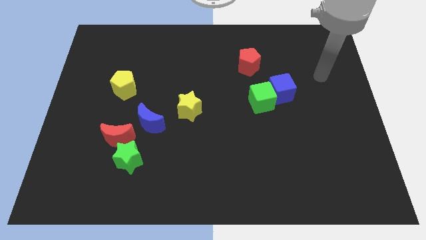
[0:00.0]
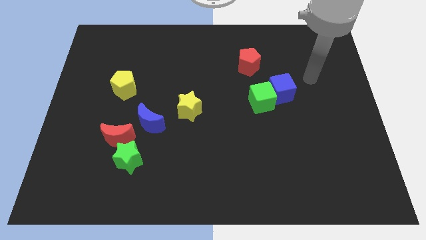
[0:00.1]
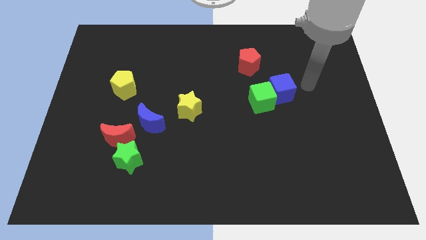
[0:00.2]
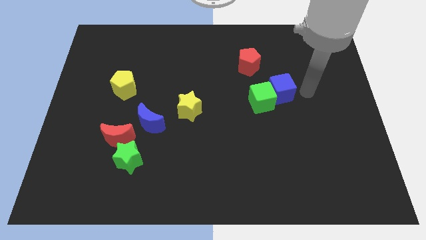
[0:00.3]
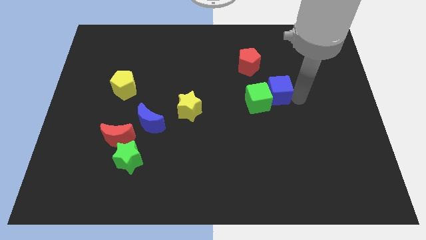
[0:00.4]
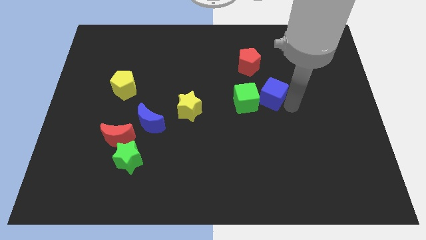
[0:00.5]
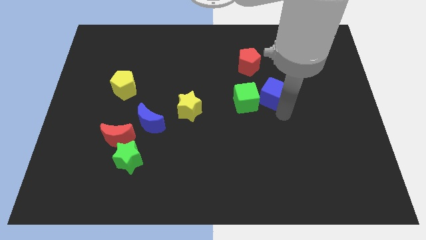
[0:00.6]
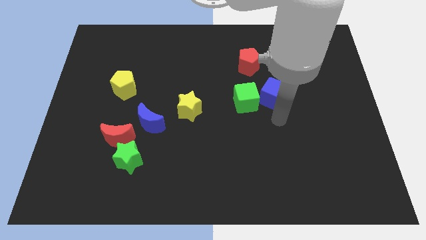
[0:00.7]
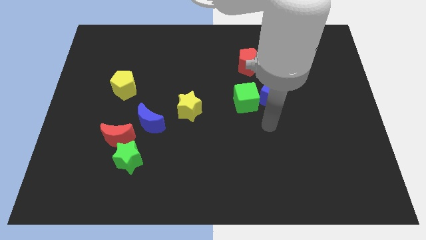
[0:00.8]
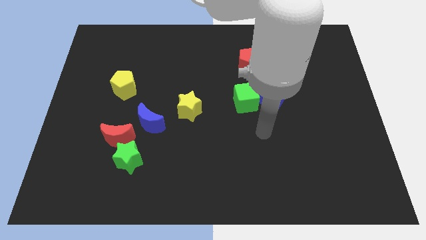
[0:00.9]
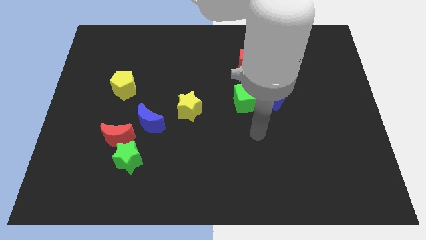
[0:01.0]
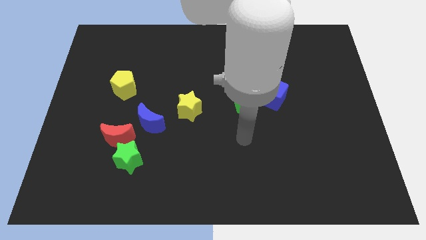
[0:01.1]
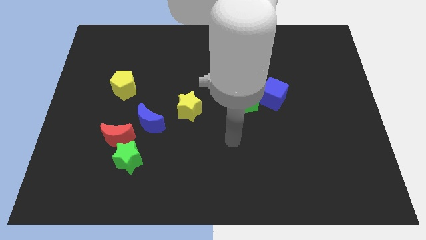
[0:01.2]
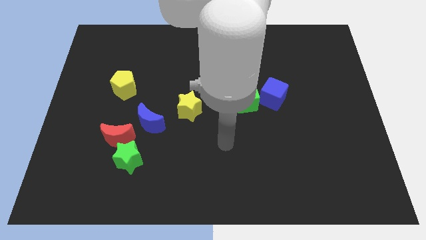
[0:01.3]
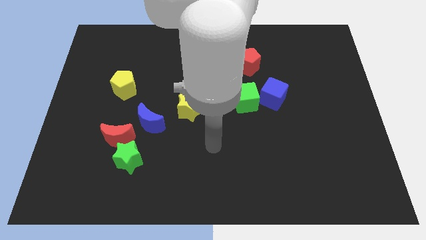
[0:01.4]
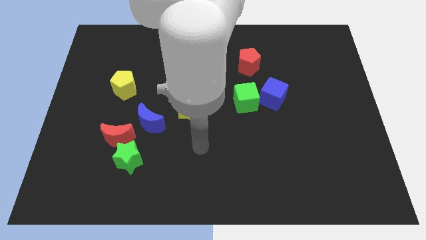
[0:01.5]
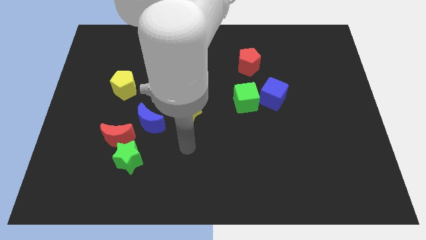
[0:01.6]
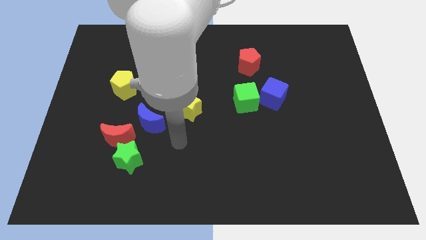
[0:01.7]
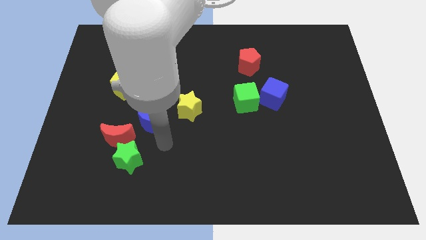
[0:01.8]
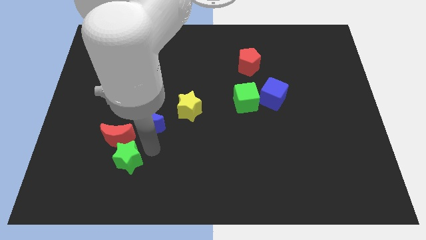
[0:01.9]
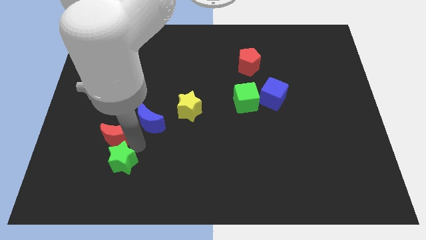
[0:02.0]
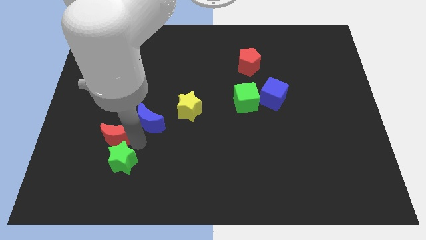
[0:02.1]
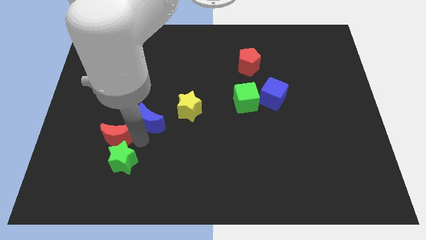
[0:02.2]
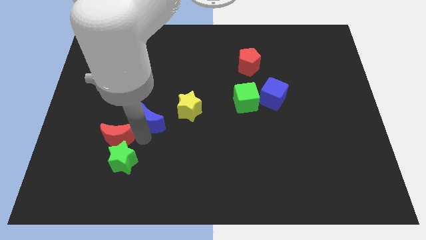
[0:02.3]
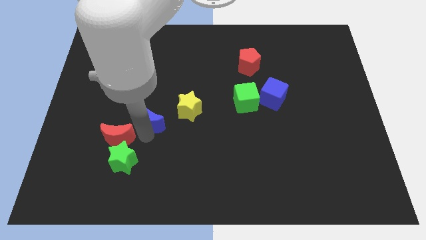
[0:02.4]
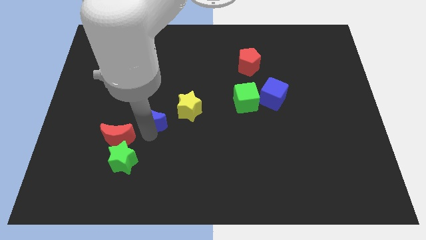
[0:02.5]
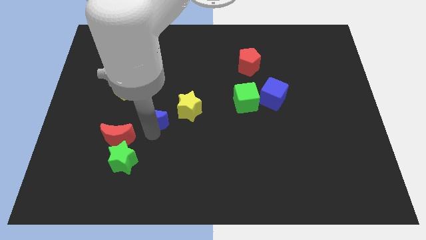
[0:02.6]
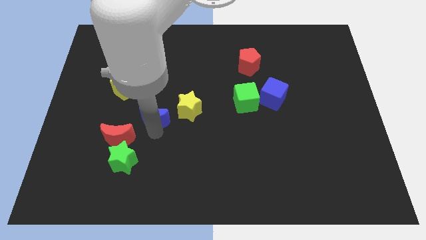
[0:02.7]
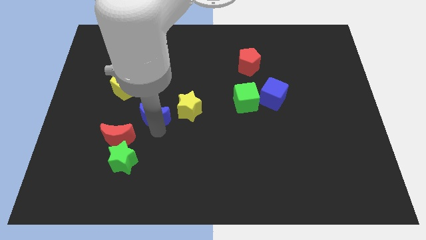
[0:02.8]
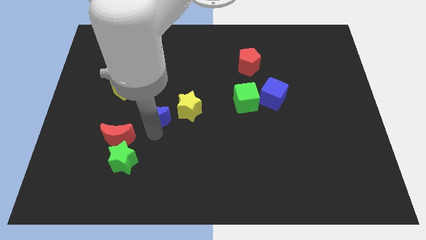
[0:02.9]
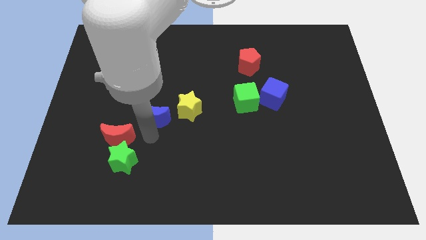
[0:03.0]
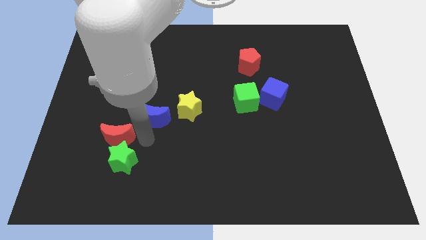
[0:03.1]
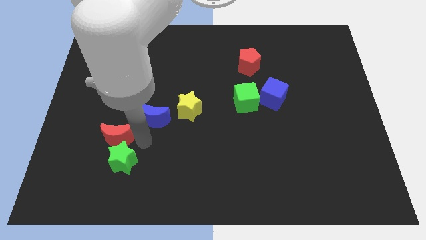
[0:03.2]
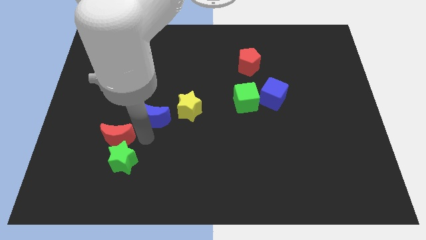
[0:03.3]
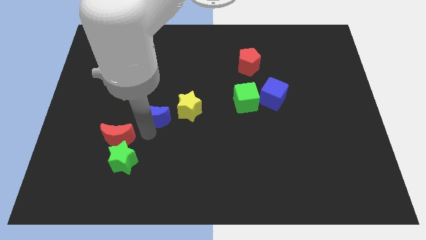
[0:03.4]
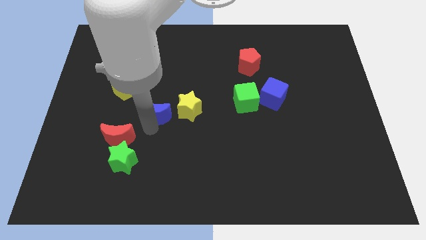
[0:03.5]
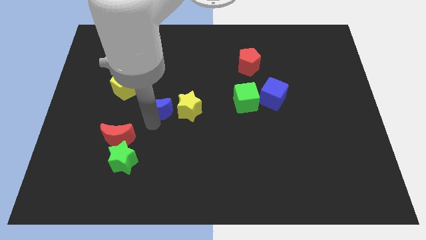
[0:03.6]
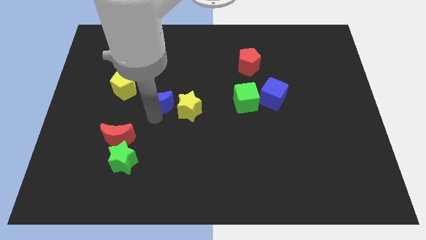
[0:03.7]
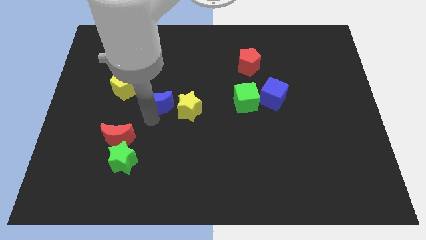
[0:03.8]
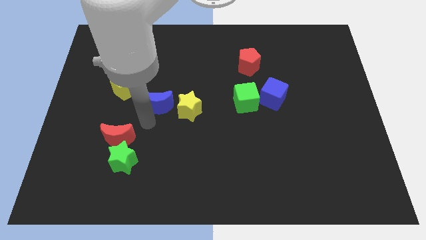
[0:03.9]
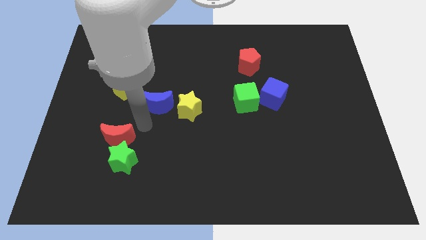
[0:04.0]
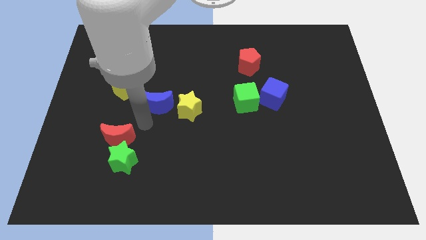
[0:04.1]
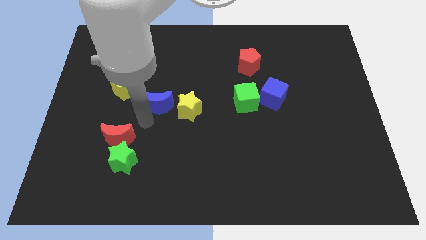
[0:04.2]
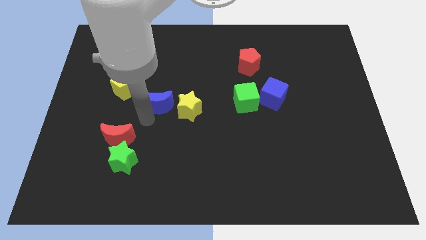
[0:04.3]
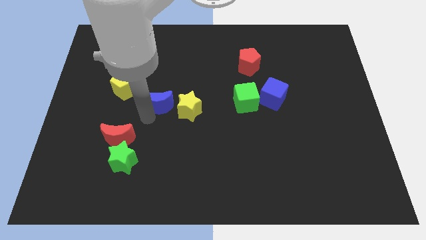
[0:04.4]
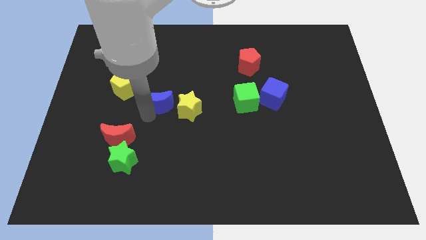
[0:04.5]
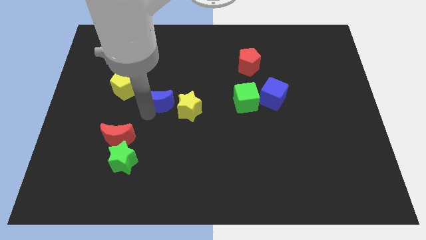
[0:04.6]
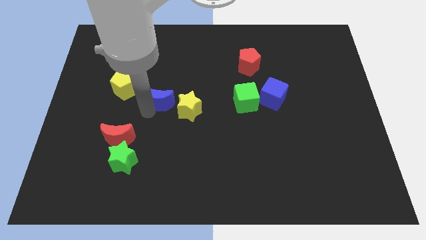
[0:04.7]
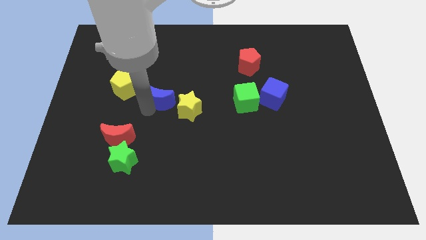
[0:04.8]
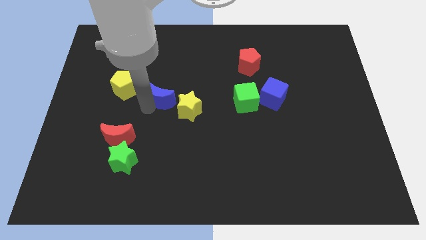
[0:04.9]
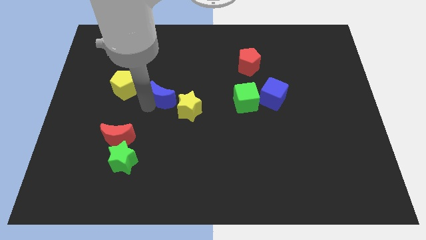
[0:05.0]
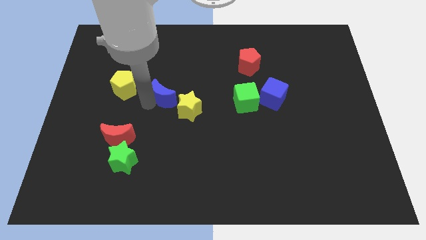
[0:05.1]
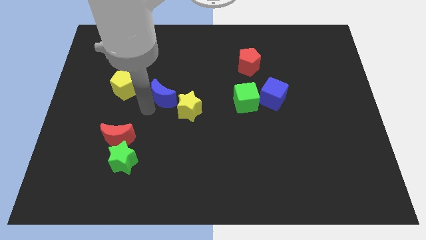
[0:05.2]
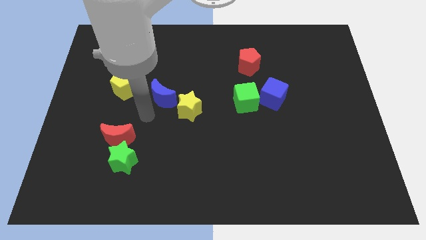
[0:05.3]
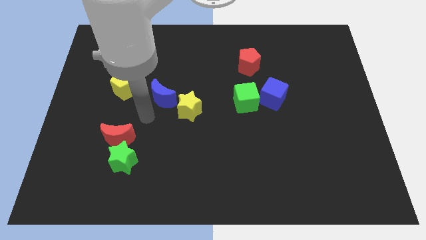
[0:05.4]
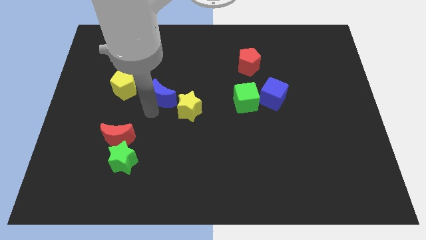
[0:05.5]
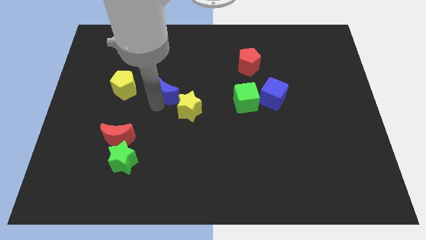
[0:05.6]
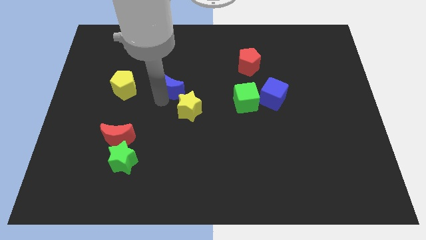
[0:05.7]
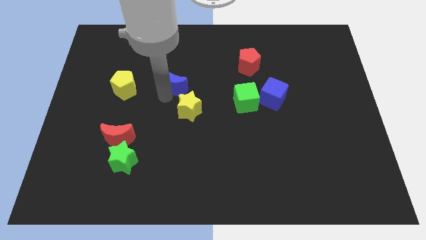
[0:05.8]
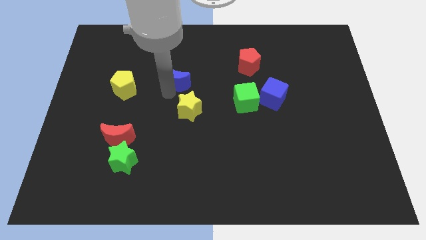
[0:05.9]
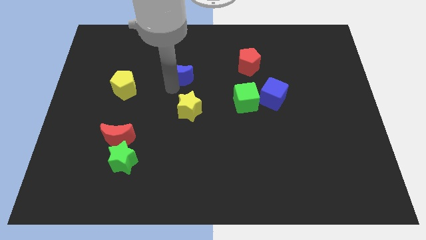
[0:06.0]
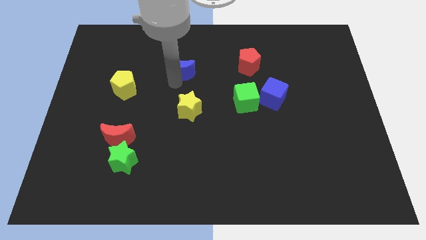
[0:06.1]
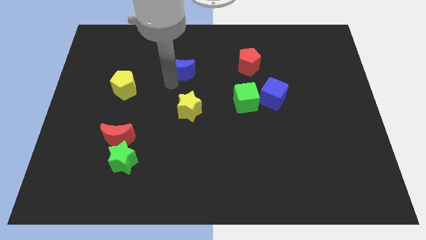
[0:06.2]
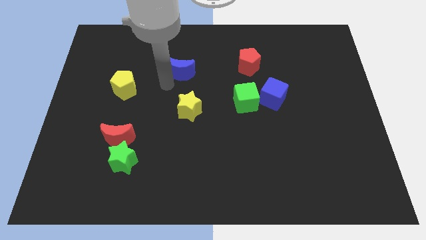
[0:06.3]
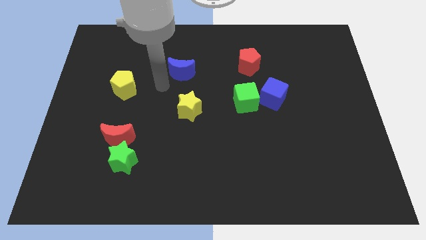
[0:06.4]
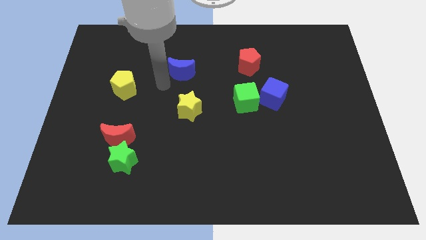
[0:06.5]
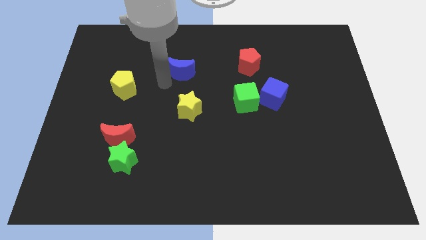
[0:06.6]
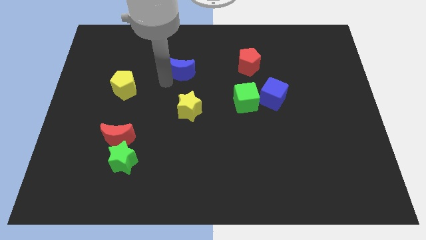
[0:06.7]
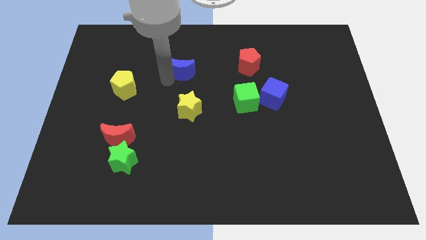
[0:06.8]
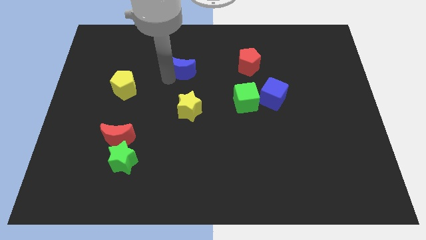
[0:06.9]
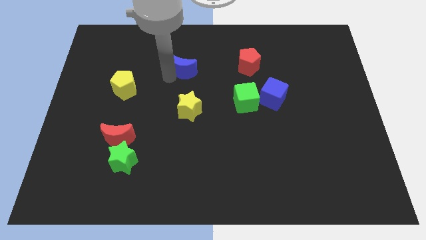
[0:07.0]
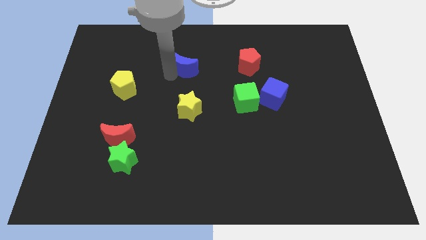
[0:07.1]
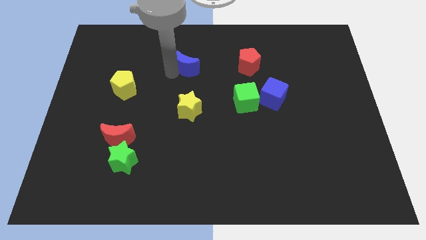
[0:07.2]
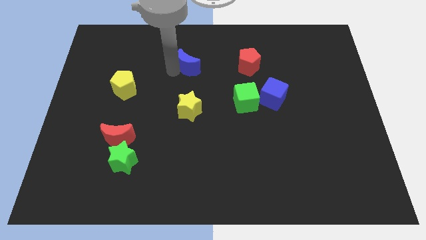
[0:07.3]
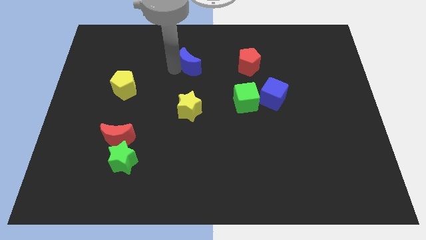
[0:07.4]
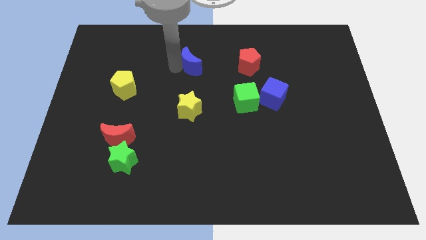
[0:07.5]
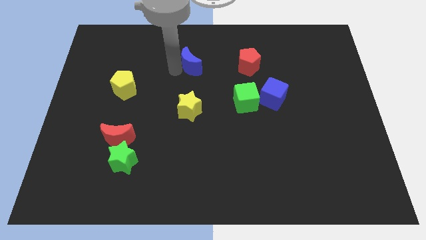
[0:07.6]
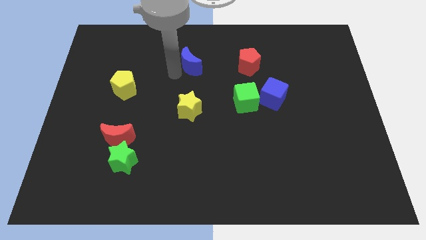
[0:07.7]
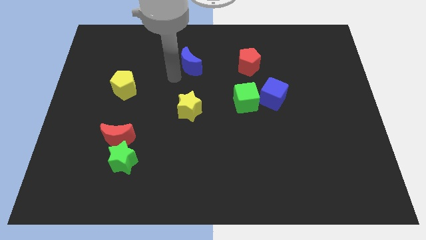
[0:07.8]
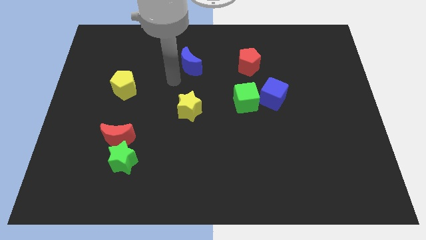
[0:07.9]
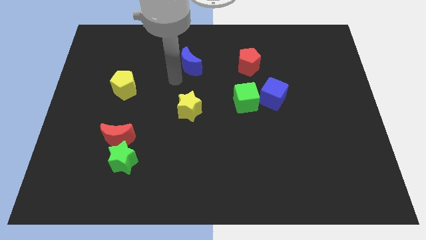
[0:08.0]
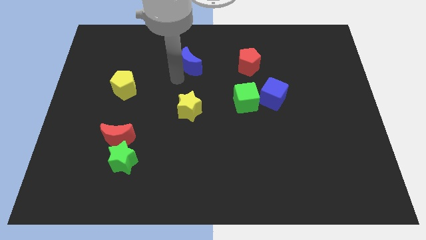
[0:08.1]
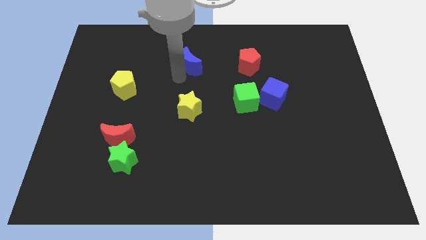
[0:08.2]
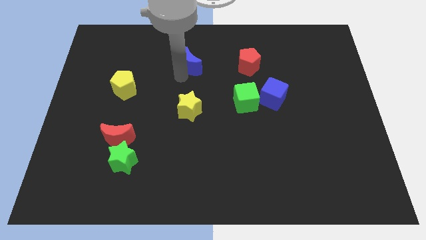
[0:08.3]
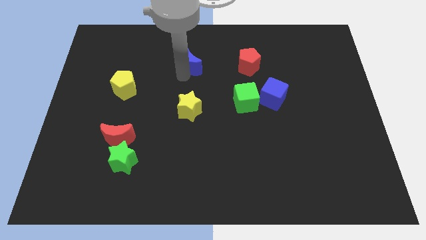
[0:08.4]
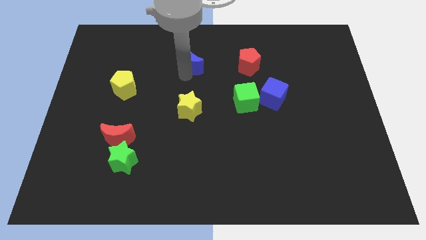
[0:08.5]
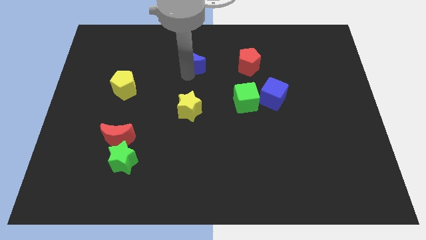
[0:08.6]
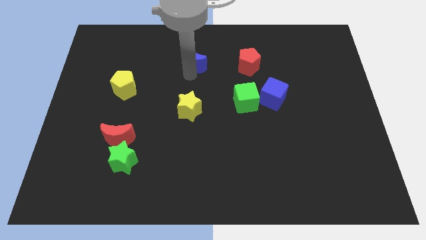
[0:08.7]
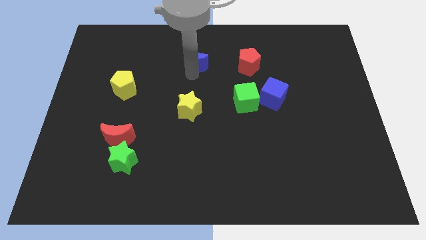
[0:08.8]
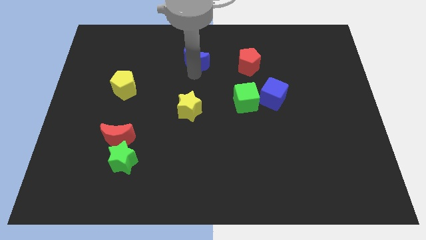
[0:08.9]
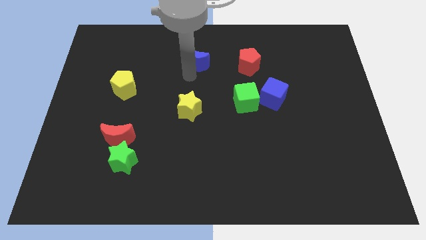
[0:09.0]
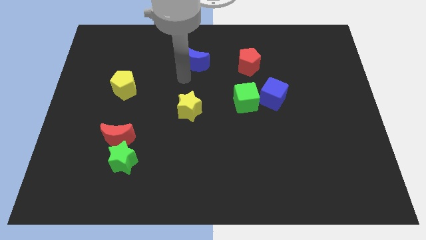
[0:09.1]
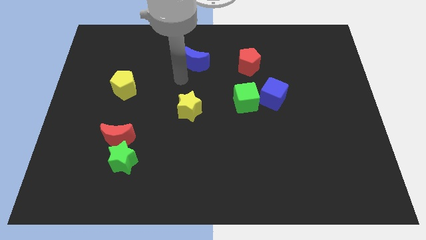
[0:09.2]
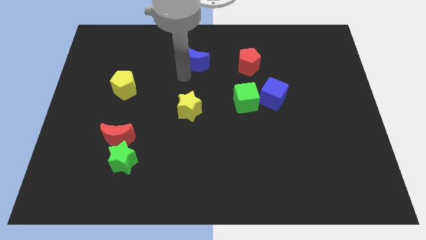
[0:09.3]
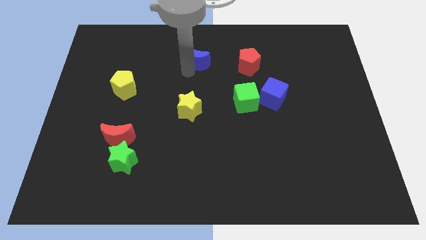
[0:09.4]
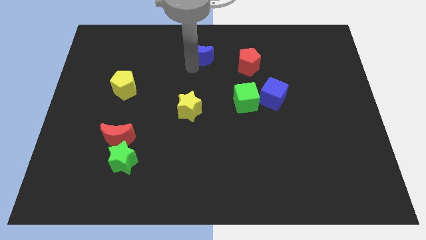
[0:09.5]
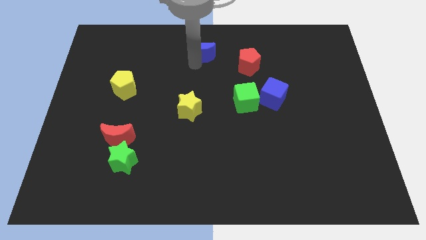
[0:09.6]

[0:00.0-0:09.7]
slide the blue moon to the top
